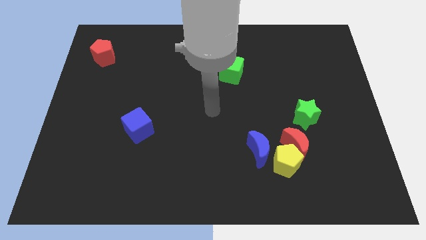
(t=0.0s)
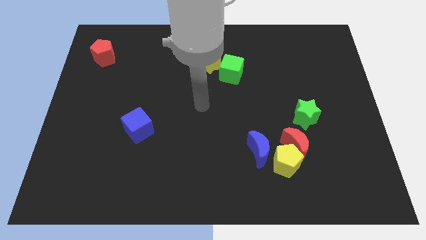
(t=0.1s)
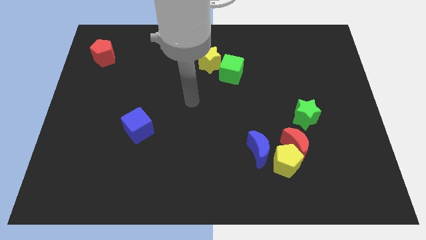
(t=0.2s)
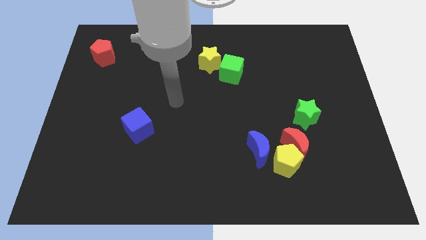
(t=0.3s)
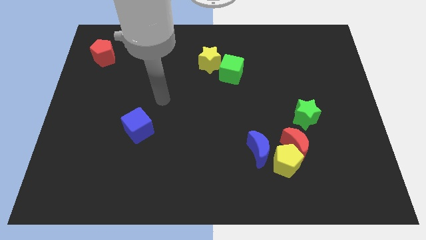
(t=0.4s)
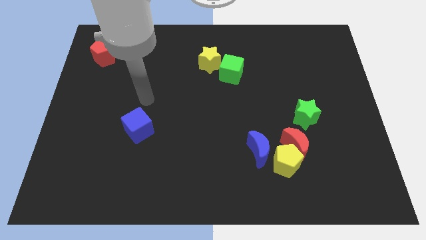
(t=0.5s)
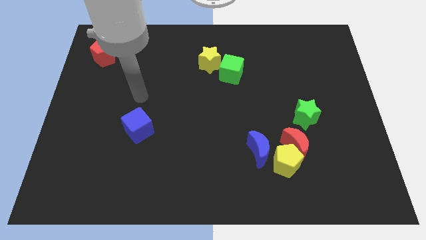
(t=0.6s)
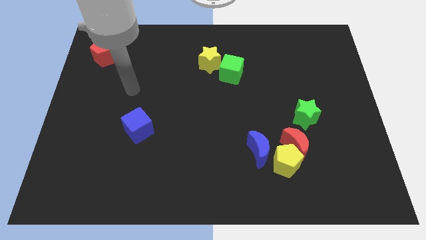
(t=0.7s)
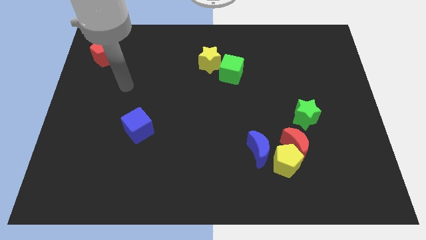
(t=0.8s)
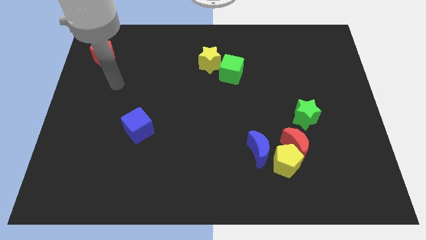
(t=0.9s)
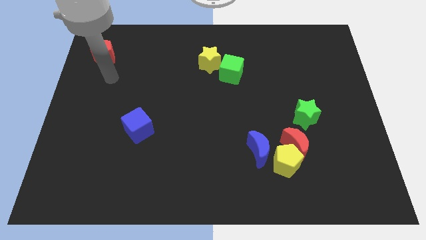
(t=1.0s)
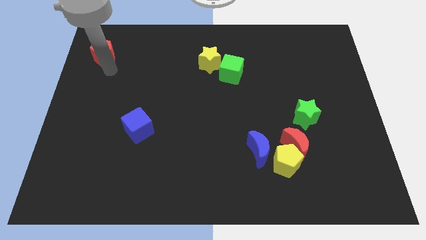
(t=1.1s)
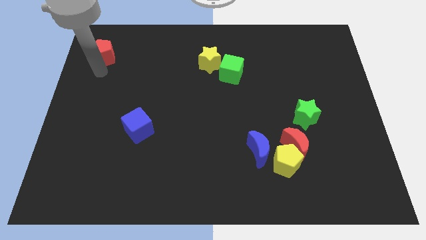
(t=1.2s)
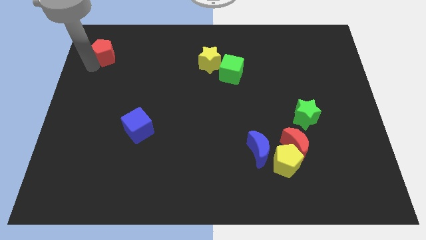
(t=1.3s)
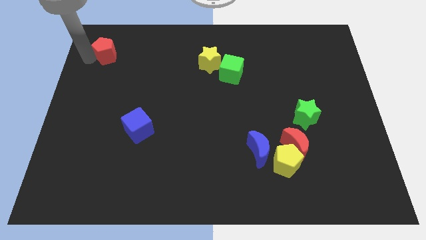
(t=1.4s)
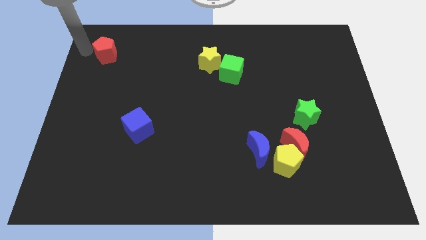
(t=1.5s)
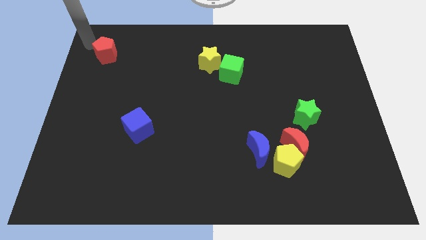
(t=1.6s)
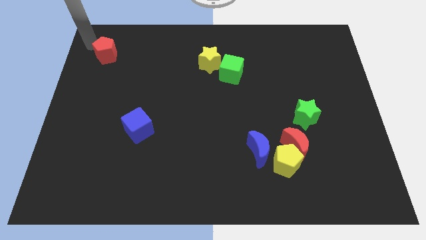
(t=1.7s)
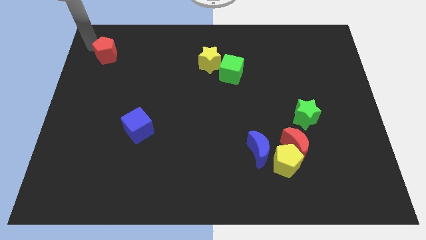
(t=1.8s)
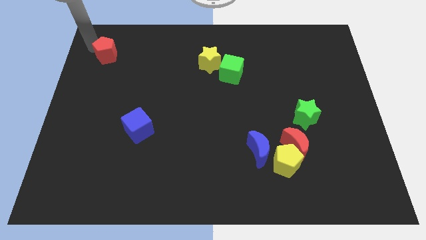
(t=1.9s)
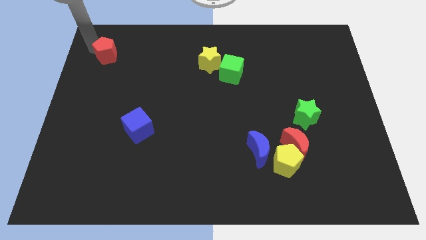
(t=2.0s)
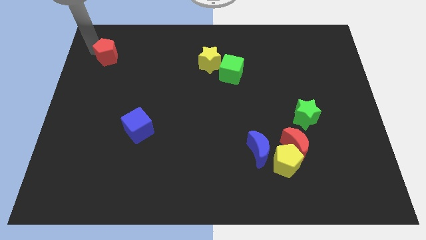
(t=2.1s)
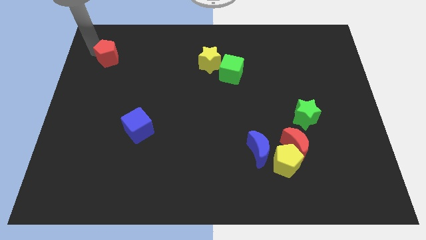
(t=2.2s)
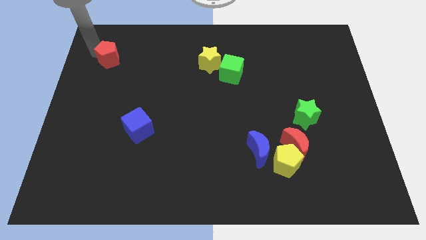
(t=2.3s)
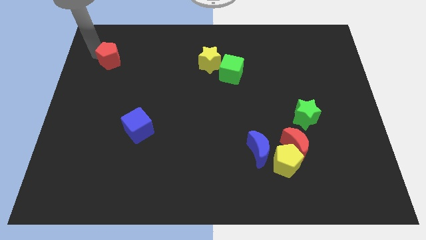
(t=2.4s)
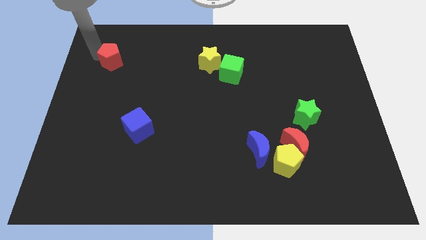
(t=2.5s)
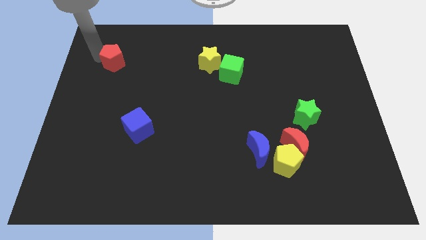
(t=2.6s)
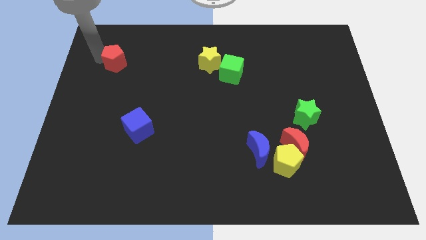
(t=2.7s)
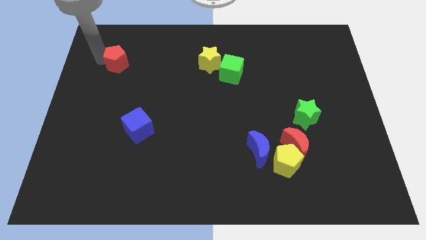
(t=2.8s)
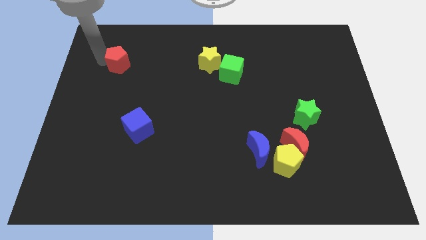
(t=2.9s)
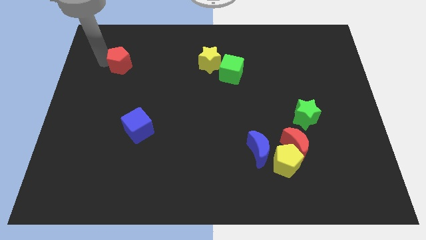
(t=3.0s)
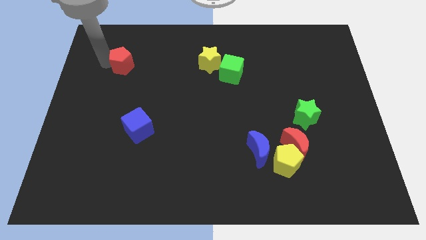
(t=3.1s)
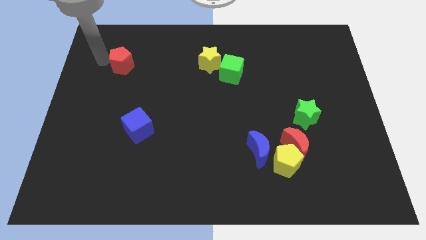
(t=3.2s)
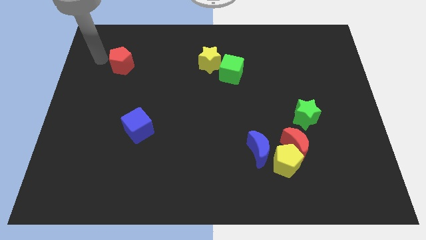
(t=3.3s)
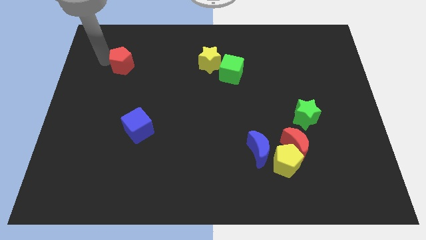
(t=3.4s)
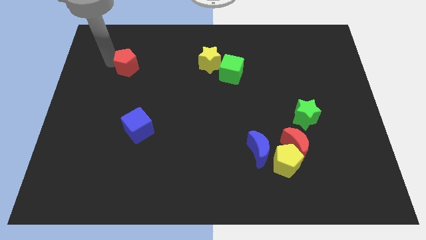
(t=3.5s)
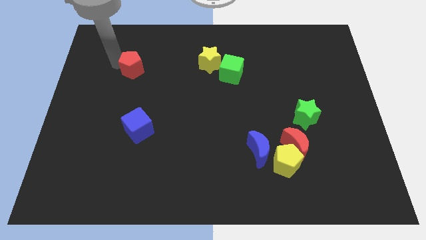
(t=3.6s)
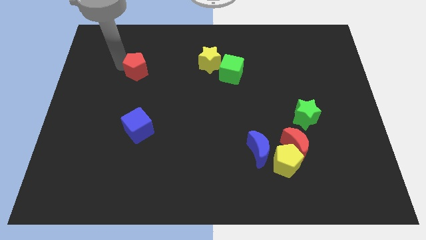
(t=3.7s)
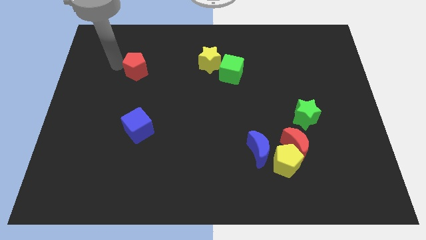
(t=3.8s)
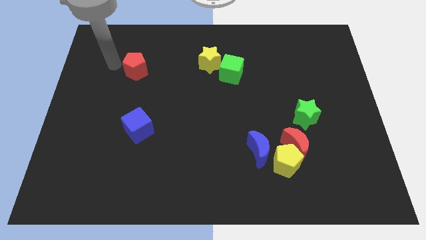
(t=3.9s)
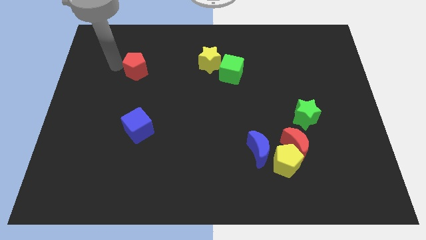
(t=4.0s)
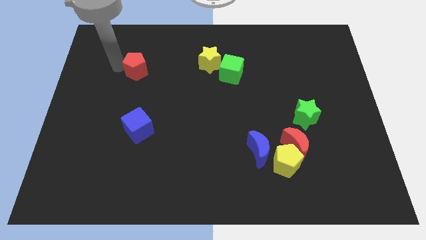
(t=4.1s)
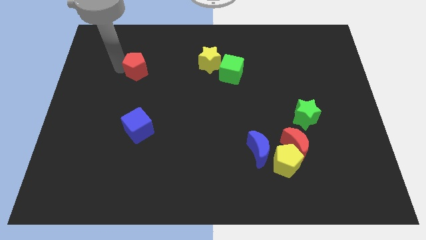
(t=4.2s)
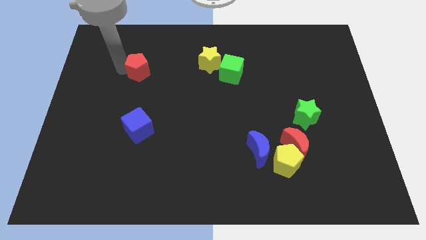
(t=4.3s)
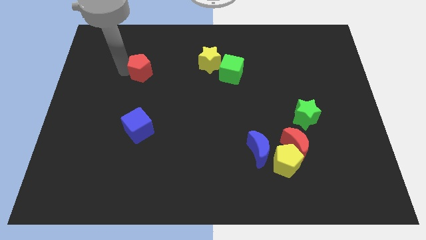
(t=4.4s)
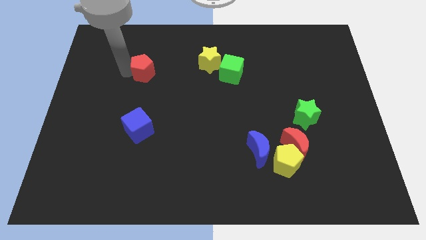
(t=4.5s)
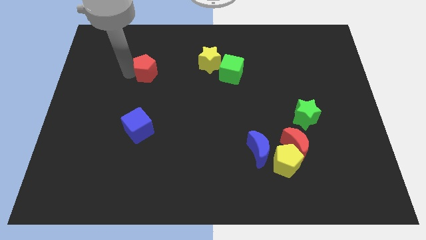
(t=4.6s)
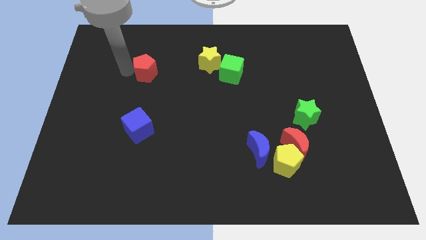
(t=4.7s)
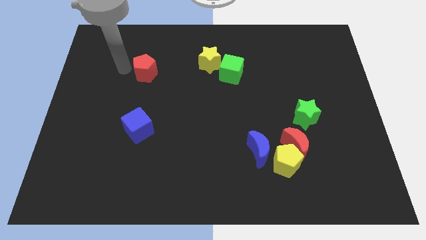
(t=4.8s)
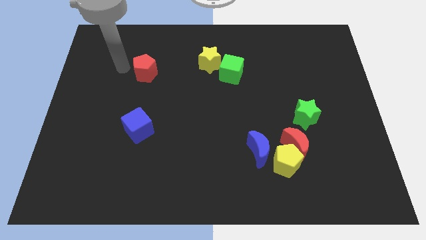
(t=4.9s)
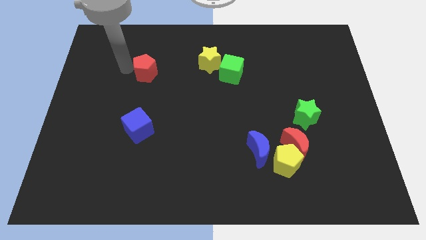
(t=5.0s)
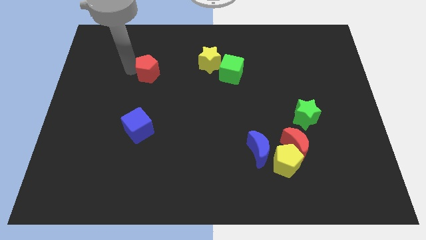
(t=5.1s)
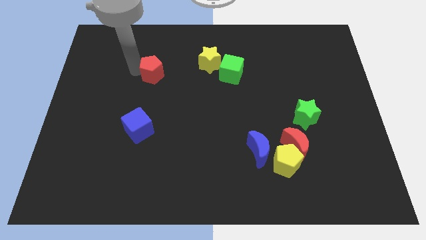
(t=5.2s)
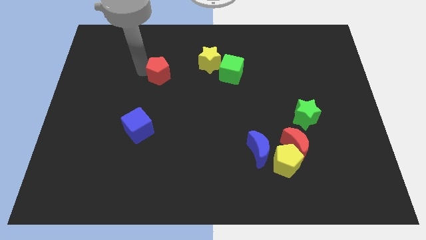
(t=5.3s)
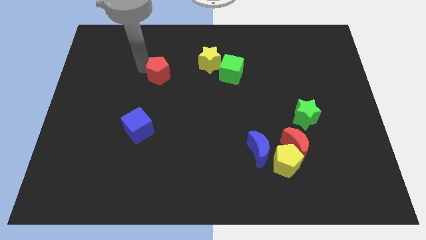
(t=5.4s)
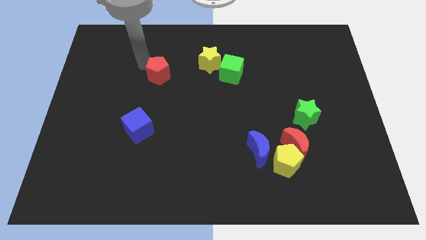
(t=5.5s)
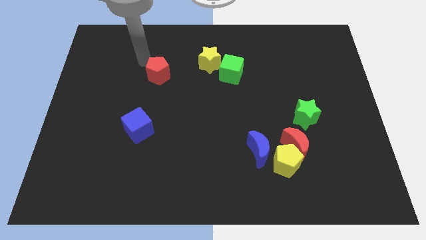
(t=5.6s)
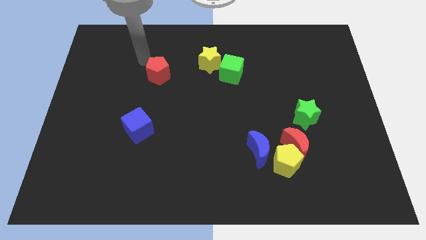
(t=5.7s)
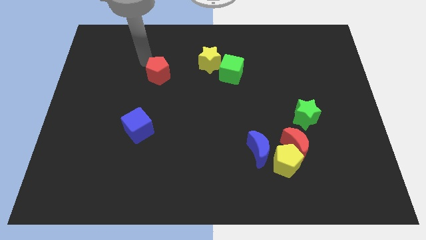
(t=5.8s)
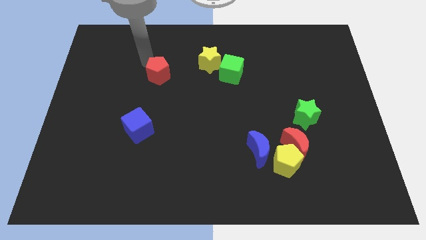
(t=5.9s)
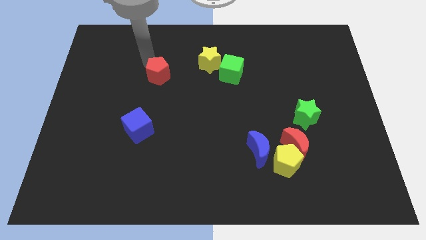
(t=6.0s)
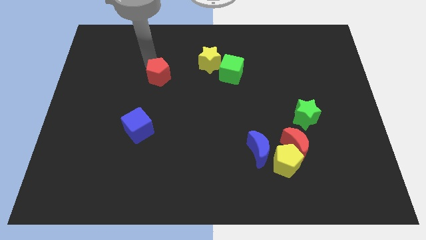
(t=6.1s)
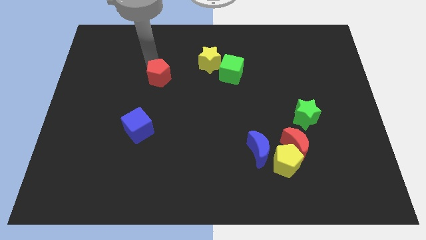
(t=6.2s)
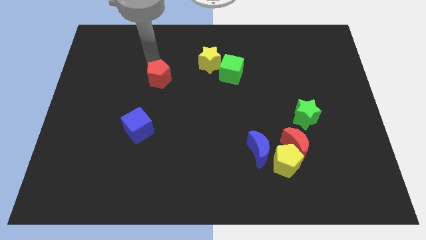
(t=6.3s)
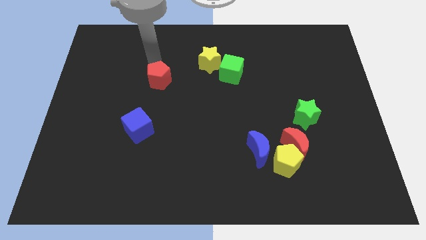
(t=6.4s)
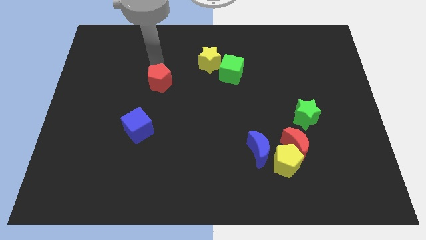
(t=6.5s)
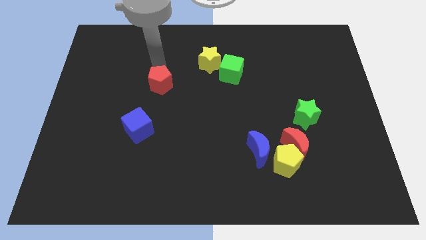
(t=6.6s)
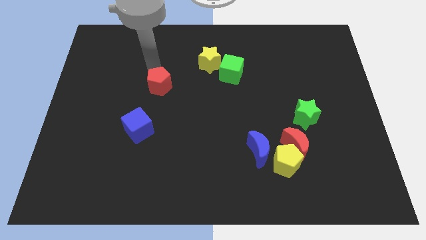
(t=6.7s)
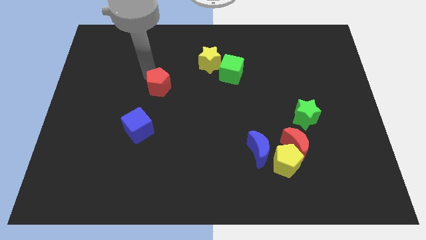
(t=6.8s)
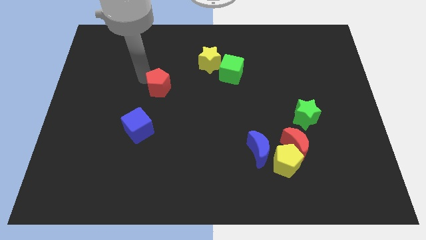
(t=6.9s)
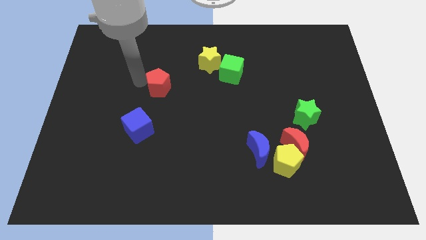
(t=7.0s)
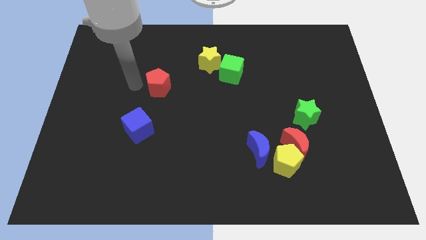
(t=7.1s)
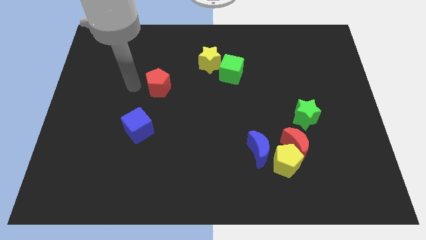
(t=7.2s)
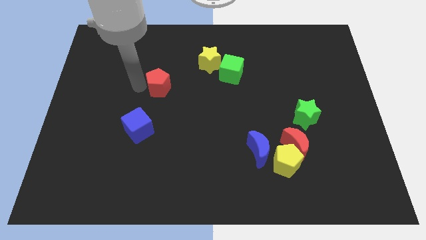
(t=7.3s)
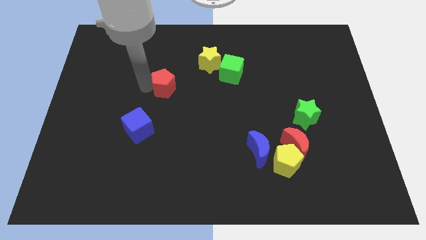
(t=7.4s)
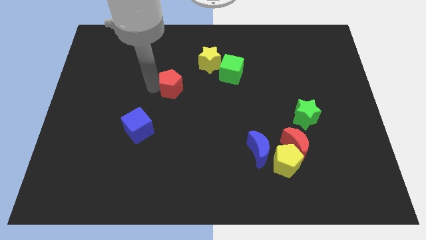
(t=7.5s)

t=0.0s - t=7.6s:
move the red pentagon to the middle
